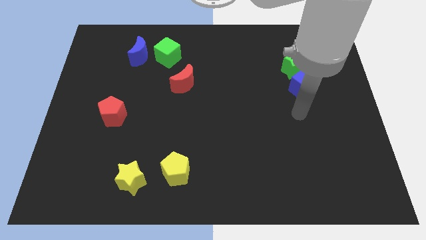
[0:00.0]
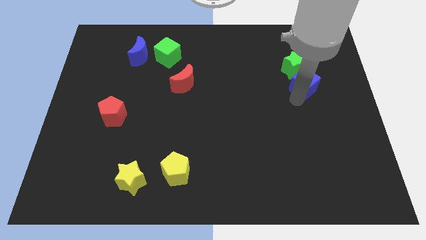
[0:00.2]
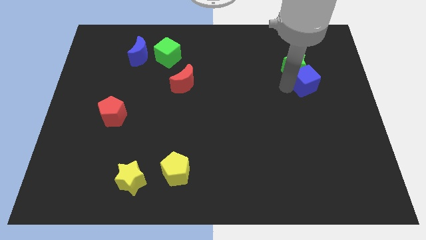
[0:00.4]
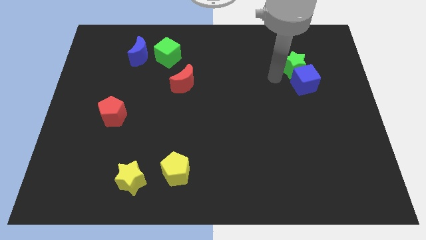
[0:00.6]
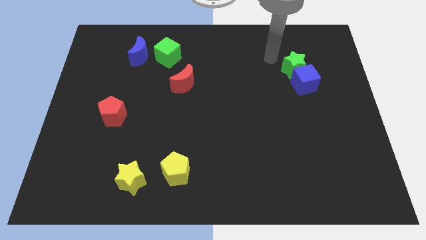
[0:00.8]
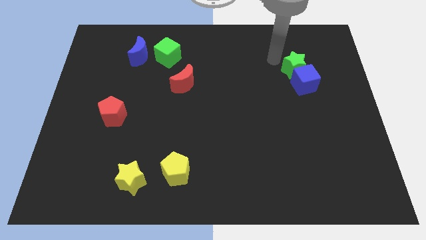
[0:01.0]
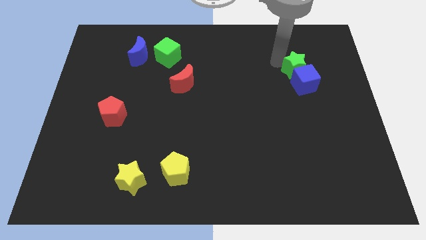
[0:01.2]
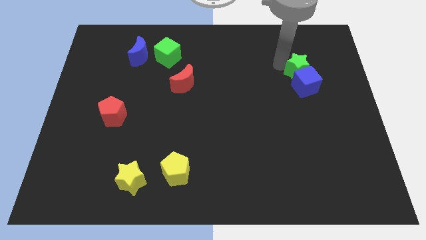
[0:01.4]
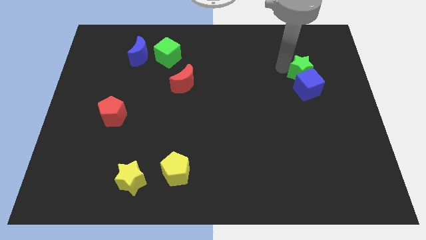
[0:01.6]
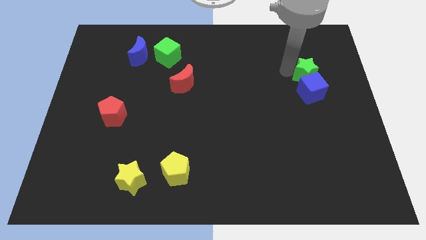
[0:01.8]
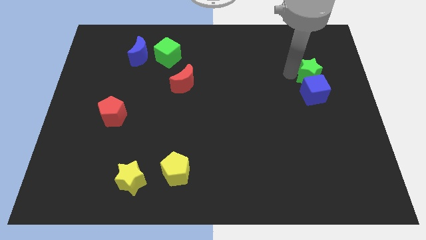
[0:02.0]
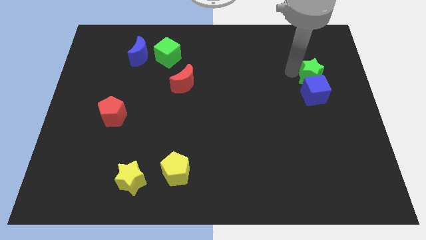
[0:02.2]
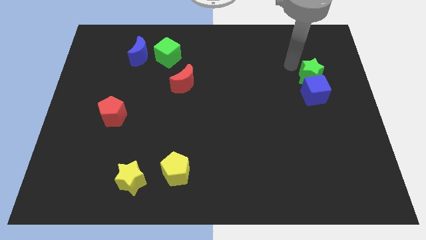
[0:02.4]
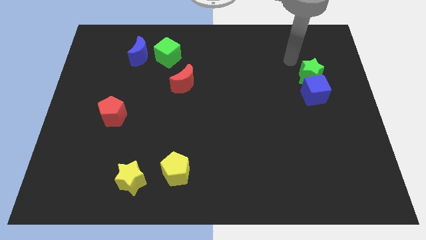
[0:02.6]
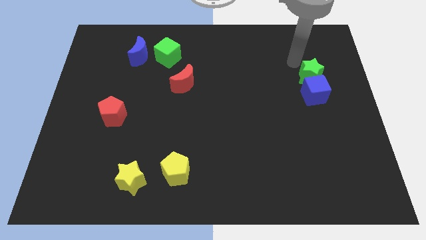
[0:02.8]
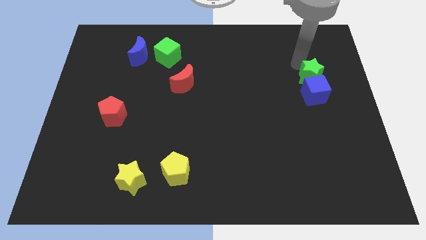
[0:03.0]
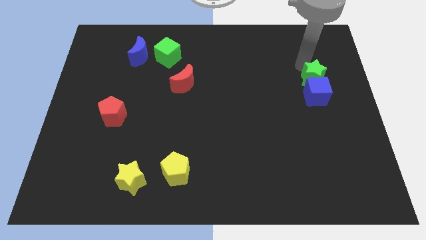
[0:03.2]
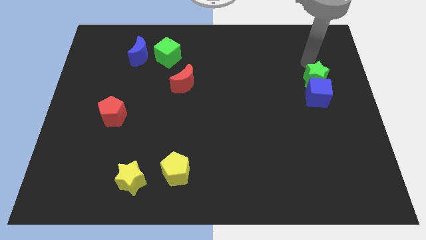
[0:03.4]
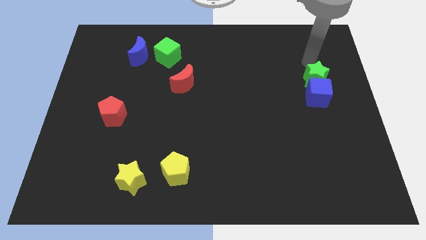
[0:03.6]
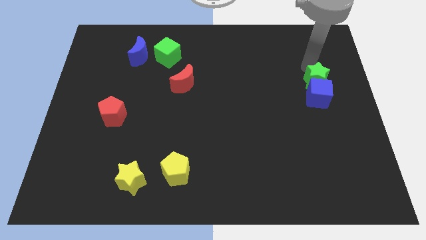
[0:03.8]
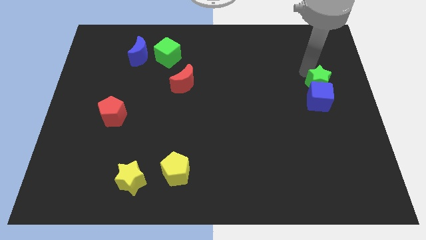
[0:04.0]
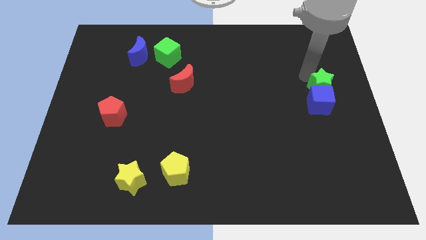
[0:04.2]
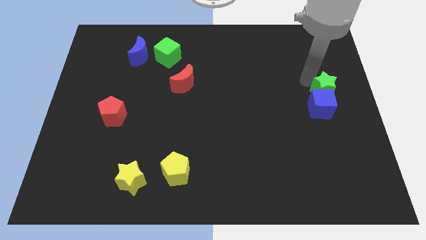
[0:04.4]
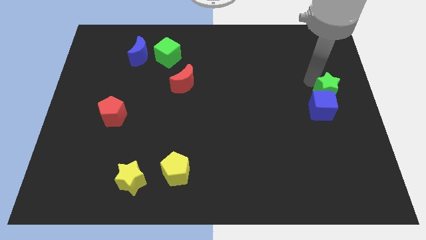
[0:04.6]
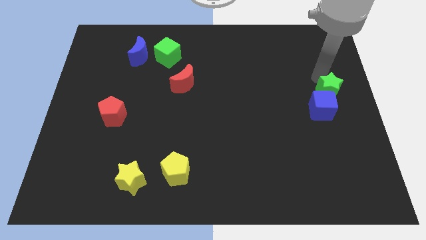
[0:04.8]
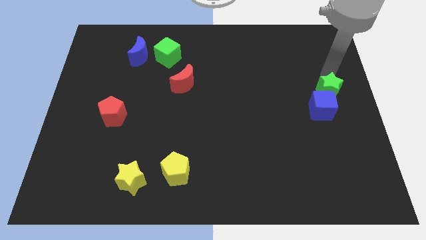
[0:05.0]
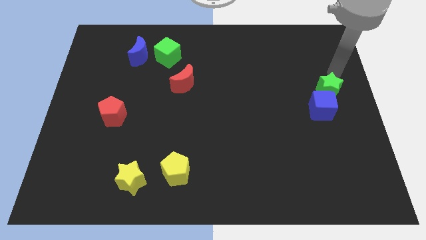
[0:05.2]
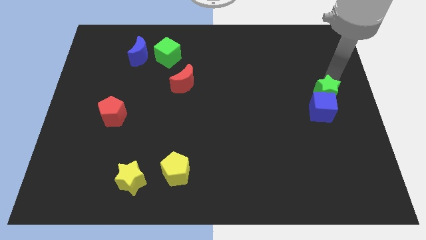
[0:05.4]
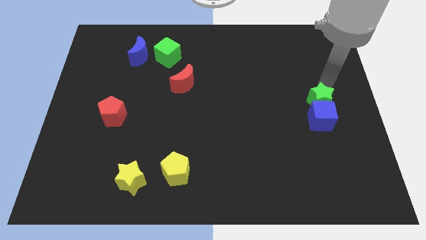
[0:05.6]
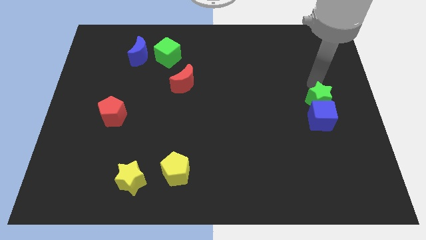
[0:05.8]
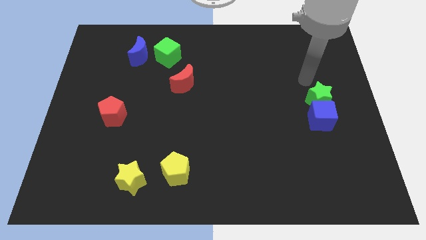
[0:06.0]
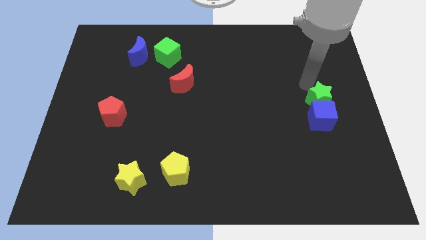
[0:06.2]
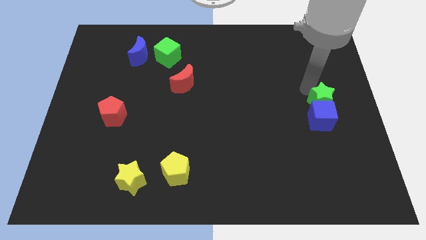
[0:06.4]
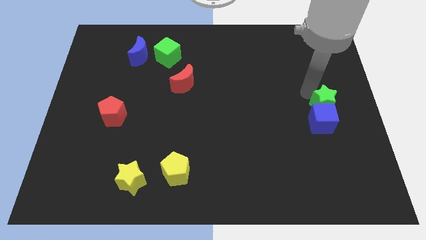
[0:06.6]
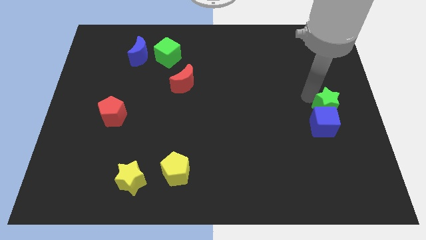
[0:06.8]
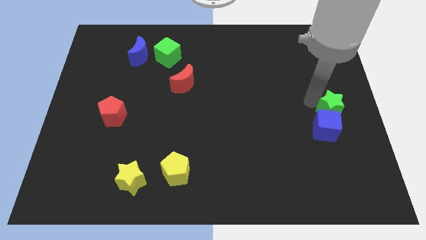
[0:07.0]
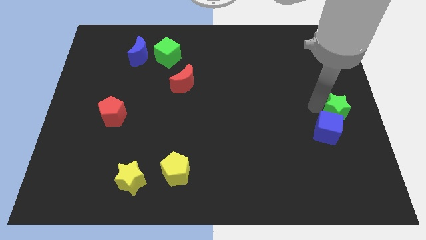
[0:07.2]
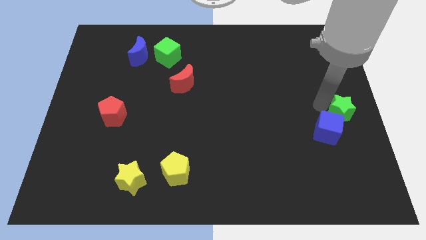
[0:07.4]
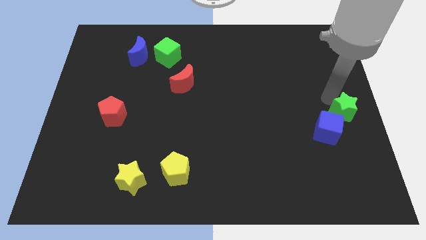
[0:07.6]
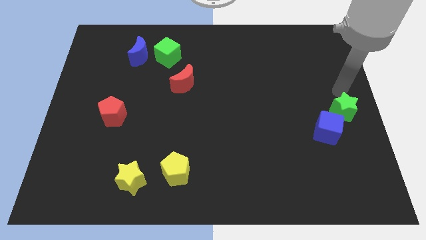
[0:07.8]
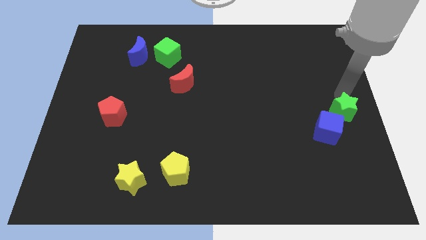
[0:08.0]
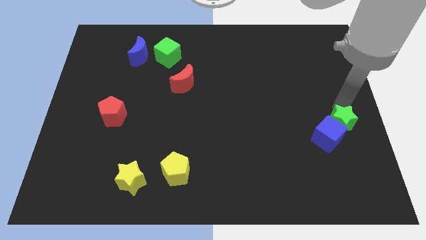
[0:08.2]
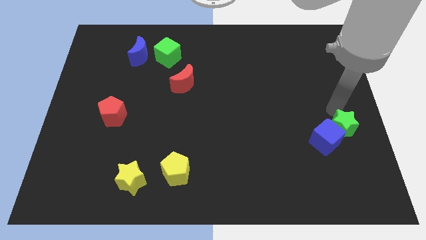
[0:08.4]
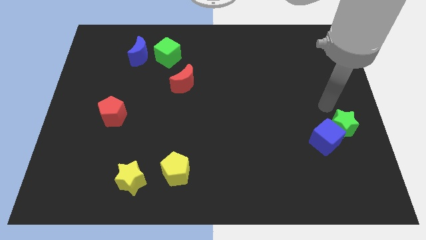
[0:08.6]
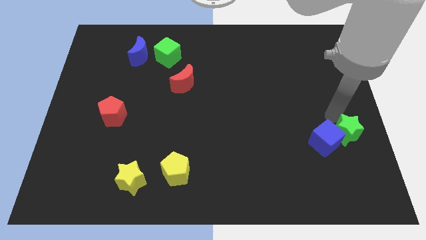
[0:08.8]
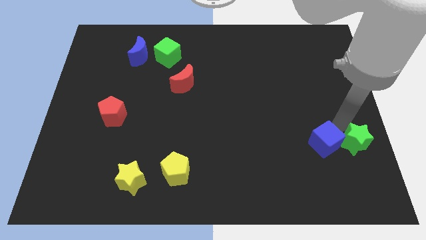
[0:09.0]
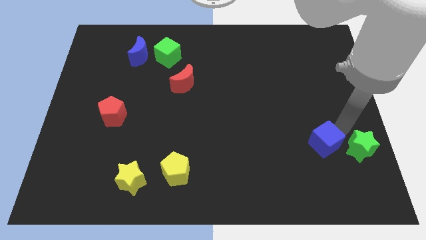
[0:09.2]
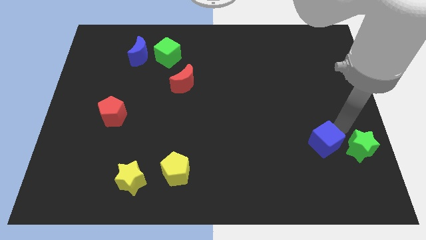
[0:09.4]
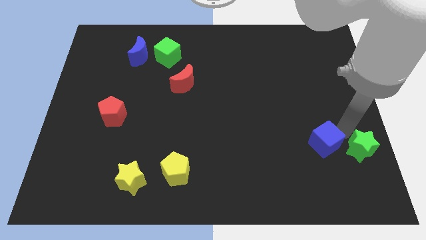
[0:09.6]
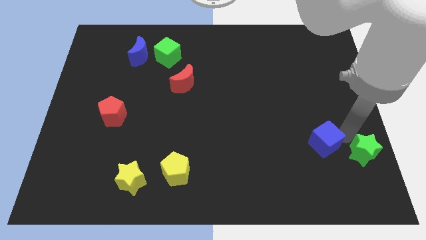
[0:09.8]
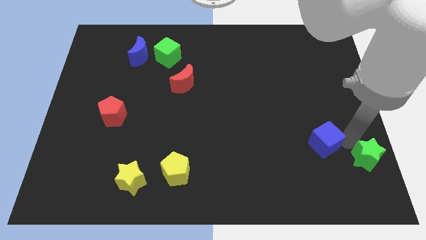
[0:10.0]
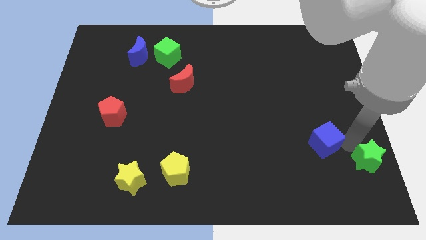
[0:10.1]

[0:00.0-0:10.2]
move the green star to the bottom right corner

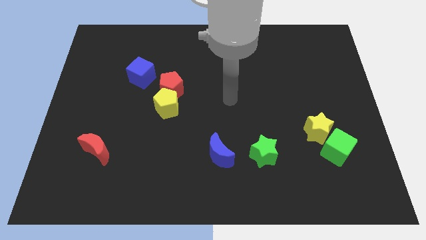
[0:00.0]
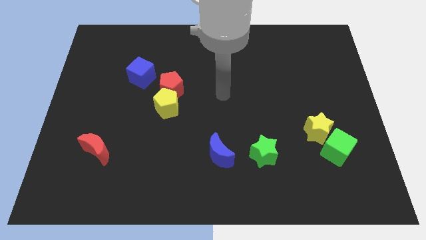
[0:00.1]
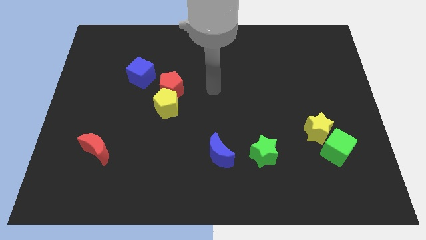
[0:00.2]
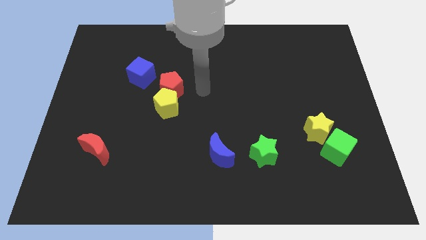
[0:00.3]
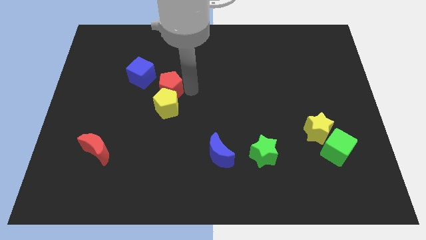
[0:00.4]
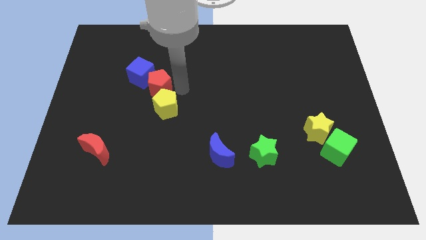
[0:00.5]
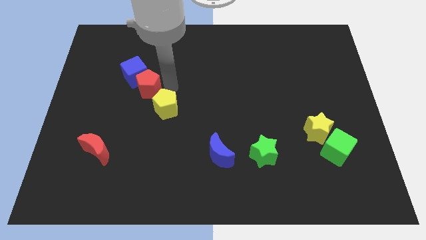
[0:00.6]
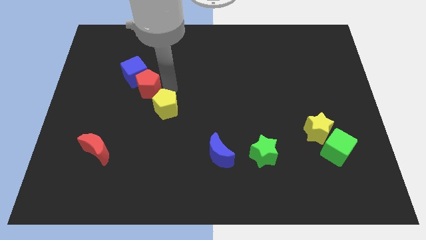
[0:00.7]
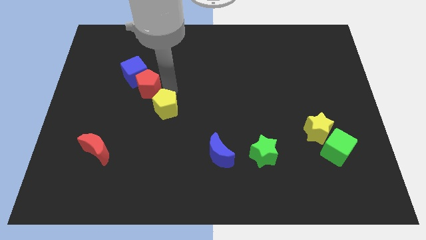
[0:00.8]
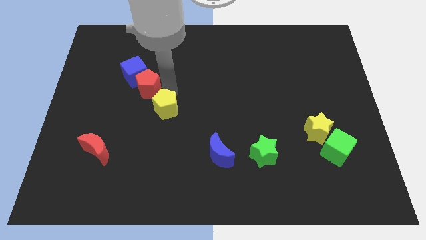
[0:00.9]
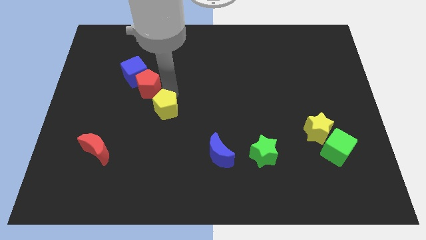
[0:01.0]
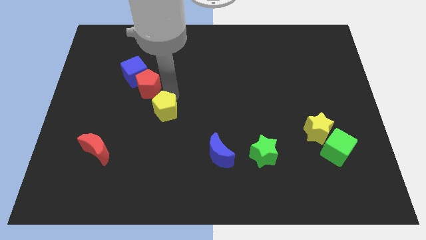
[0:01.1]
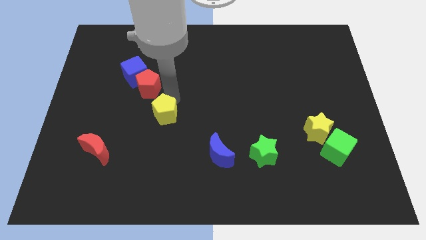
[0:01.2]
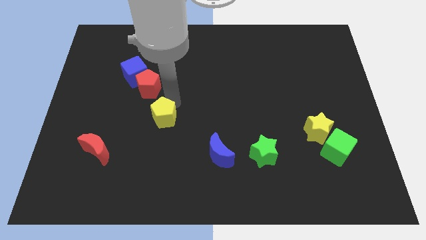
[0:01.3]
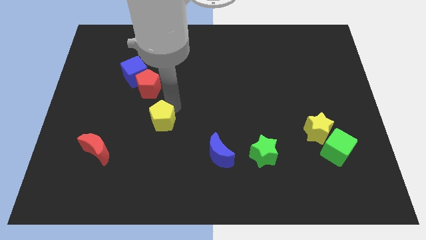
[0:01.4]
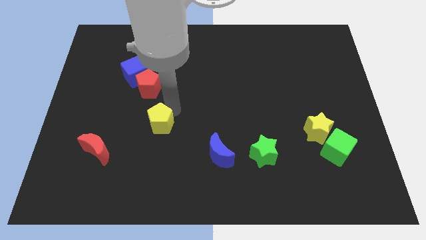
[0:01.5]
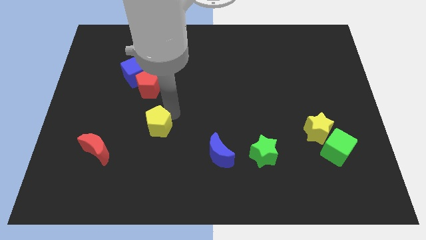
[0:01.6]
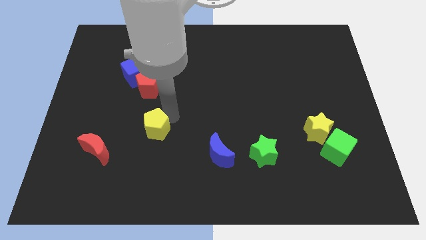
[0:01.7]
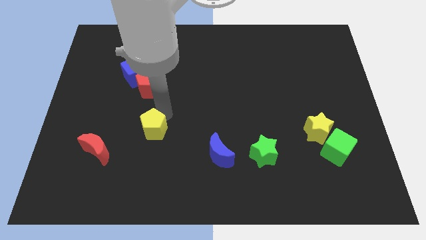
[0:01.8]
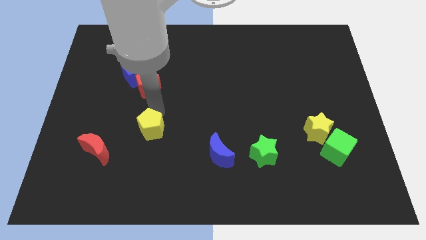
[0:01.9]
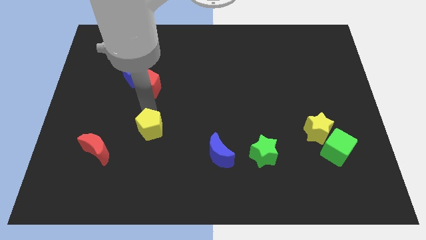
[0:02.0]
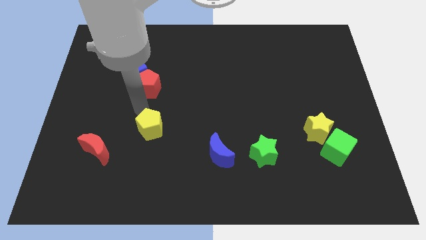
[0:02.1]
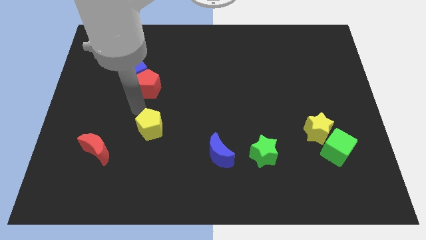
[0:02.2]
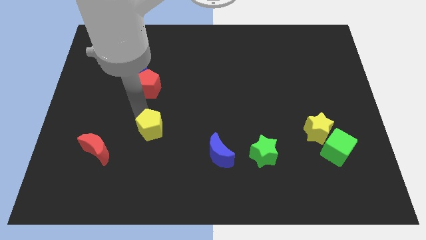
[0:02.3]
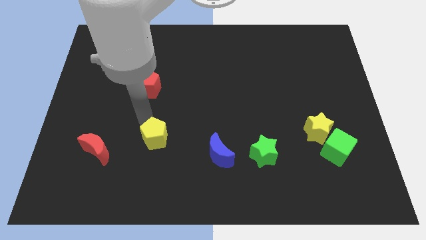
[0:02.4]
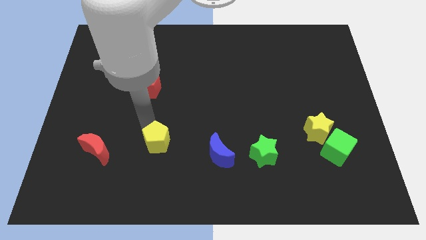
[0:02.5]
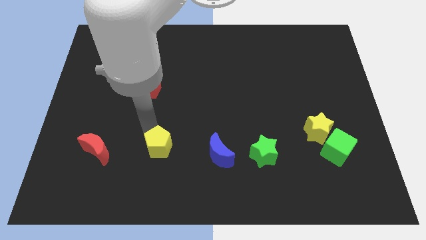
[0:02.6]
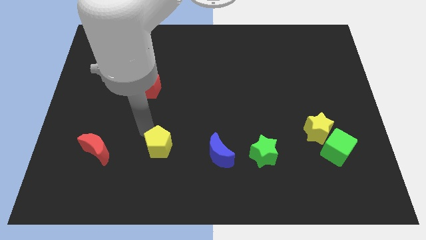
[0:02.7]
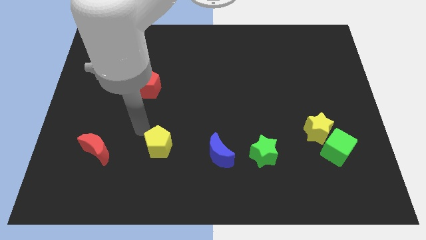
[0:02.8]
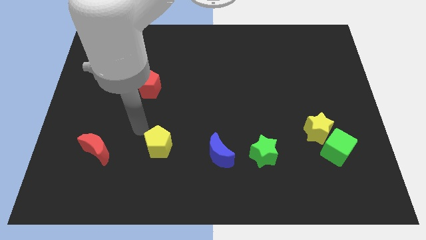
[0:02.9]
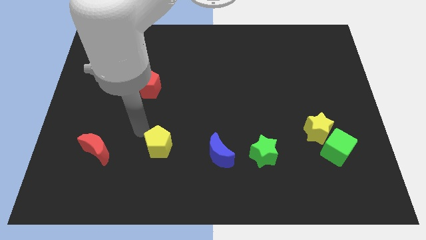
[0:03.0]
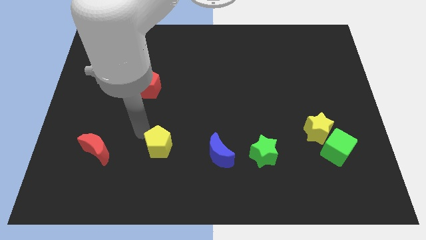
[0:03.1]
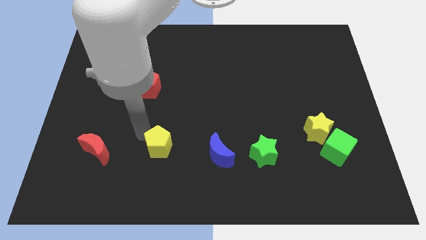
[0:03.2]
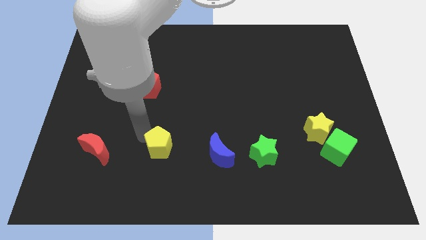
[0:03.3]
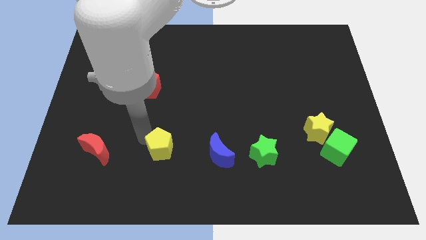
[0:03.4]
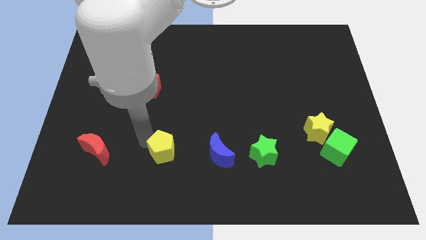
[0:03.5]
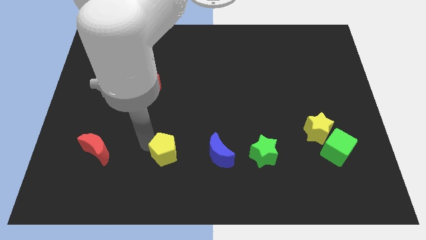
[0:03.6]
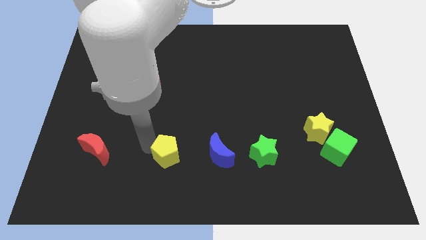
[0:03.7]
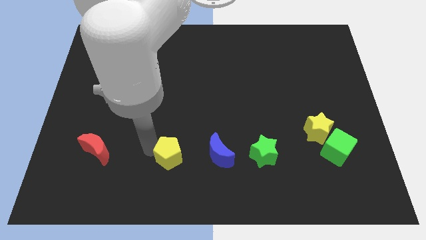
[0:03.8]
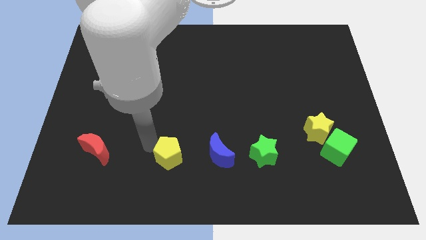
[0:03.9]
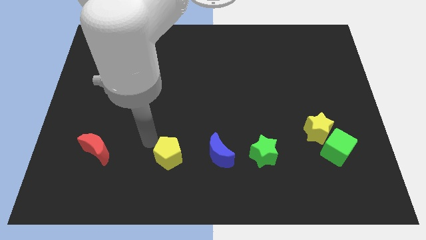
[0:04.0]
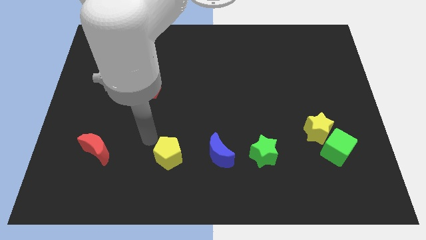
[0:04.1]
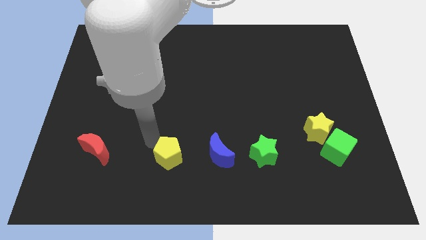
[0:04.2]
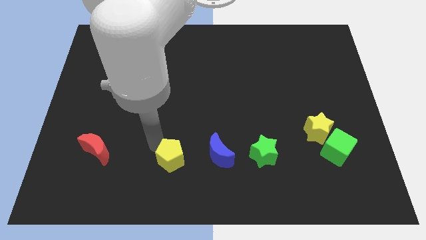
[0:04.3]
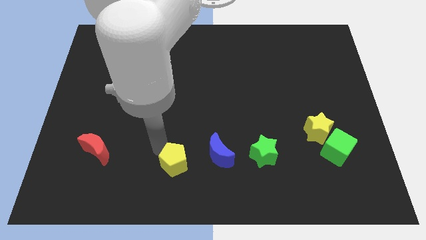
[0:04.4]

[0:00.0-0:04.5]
slide the yellow pentagon to the bottom side
